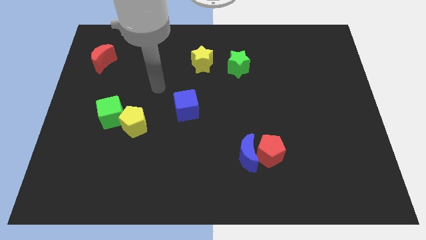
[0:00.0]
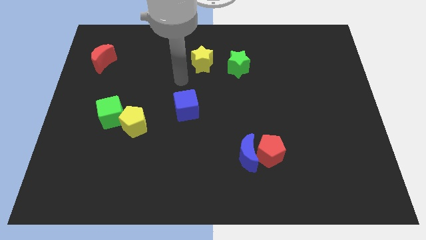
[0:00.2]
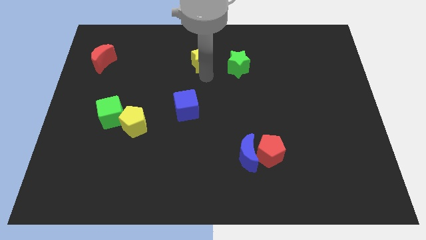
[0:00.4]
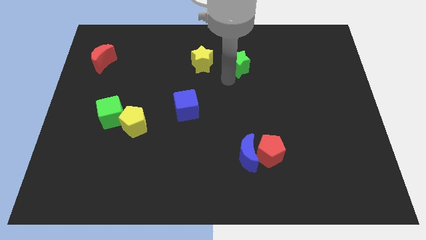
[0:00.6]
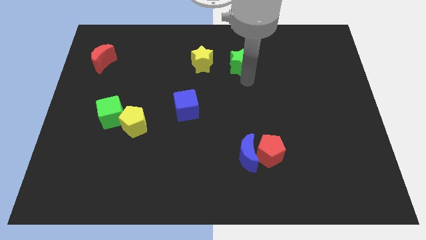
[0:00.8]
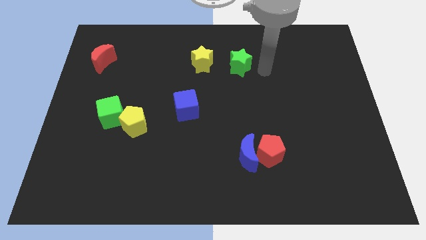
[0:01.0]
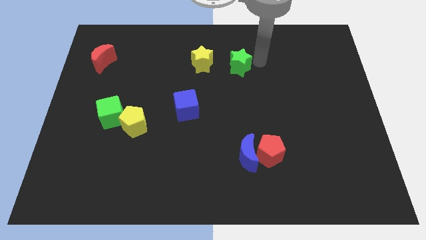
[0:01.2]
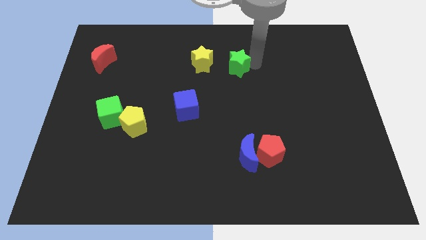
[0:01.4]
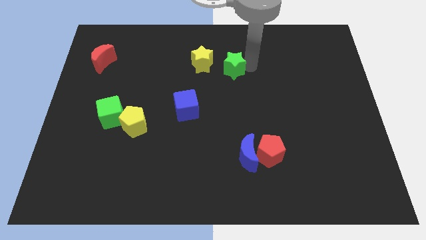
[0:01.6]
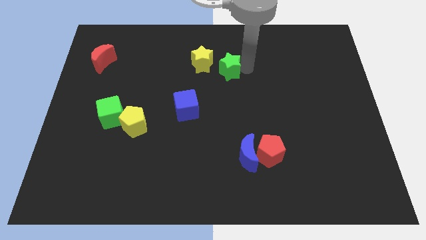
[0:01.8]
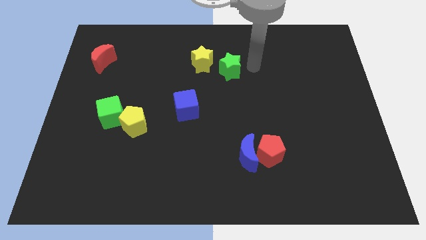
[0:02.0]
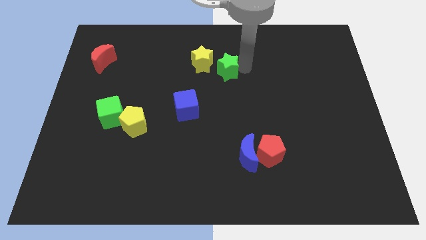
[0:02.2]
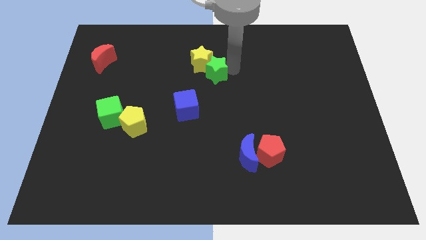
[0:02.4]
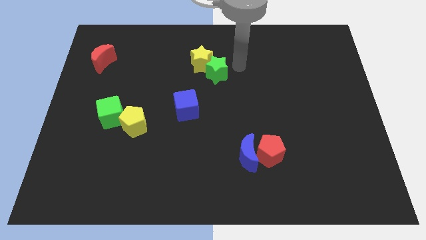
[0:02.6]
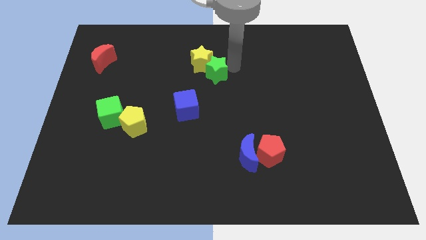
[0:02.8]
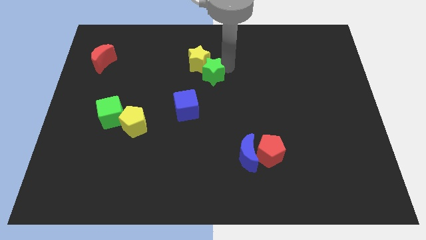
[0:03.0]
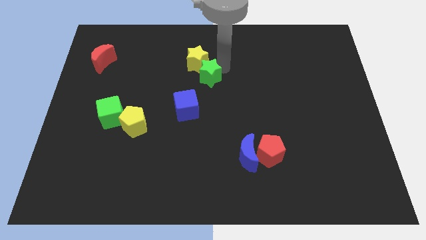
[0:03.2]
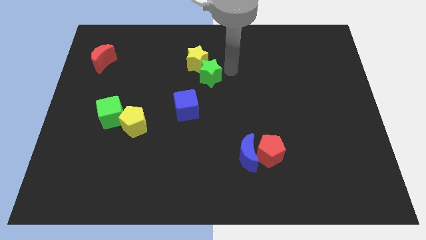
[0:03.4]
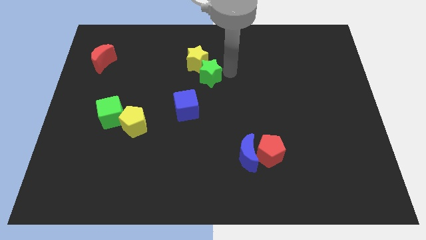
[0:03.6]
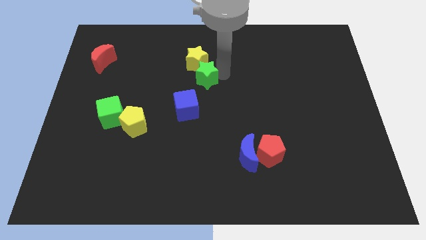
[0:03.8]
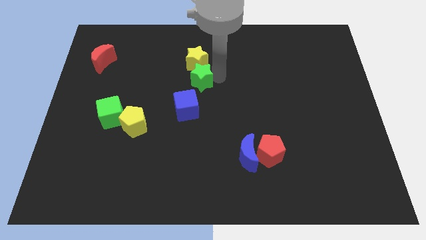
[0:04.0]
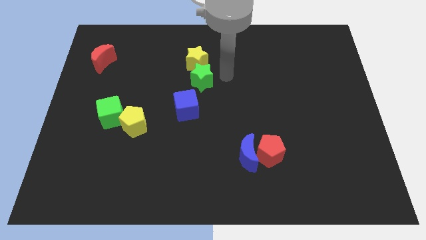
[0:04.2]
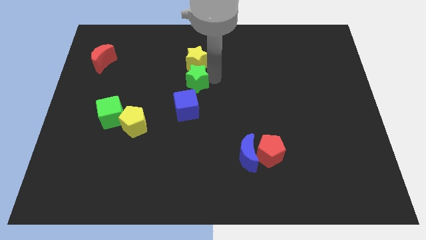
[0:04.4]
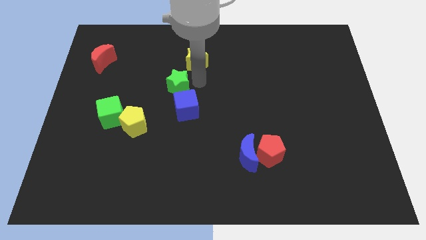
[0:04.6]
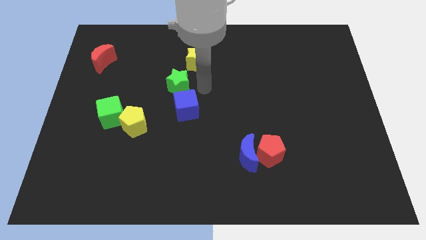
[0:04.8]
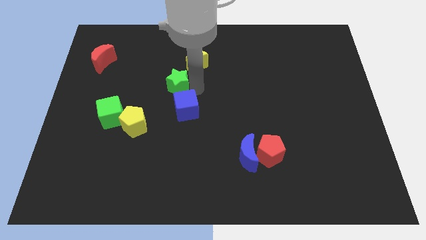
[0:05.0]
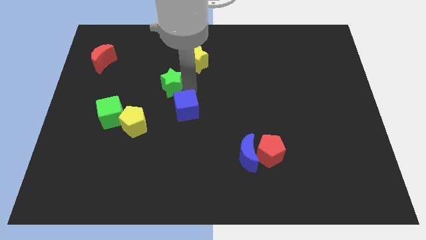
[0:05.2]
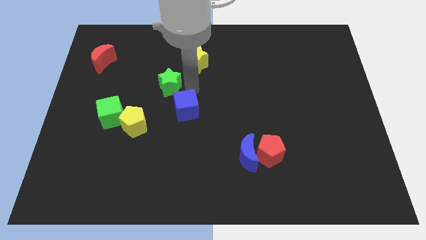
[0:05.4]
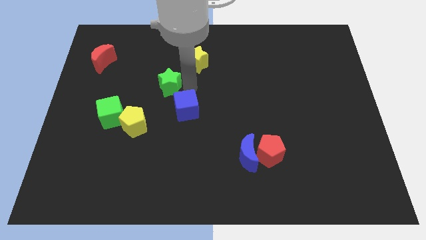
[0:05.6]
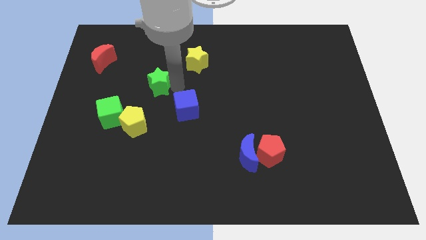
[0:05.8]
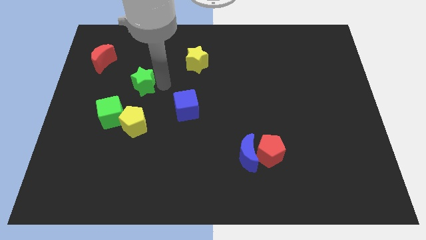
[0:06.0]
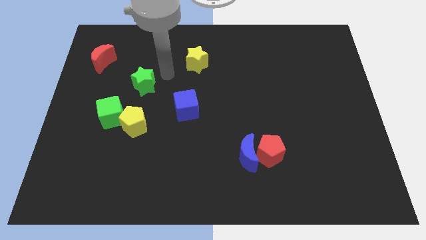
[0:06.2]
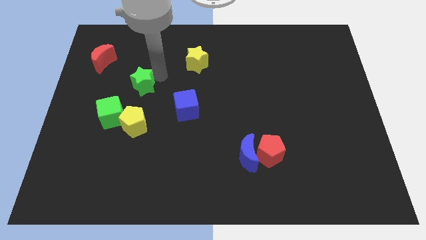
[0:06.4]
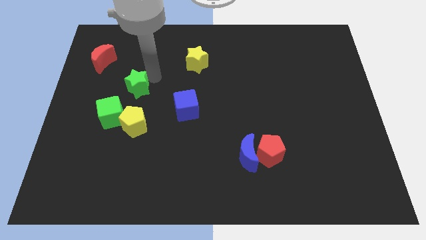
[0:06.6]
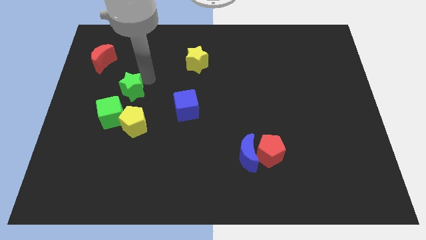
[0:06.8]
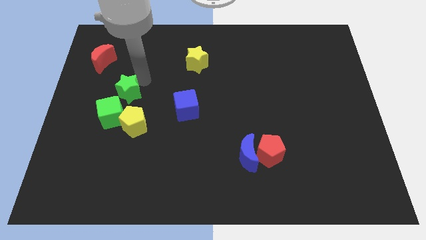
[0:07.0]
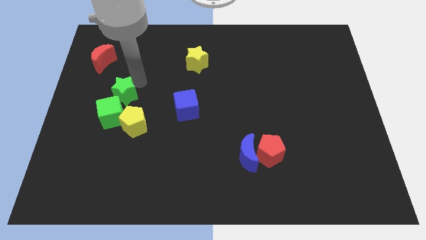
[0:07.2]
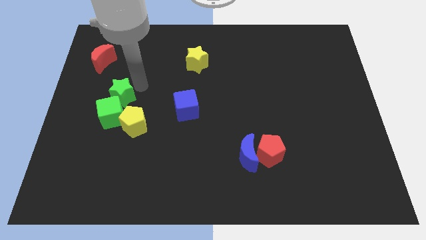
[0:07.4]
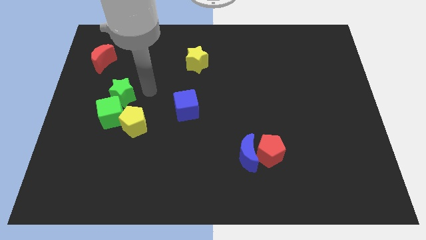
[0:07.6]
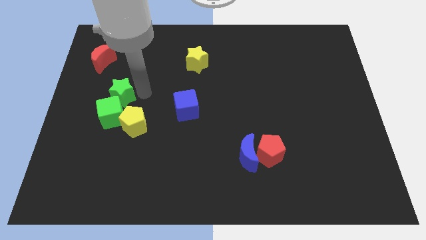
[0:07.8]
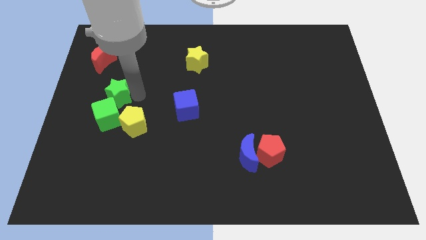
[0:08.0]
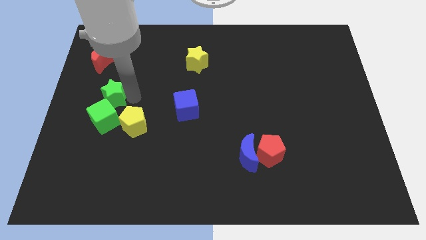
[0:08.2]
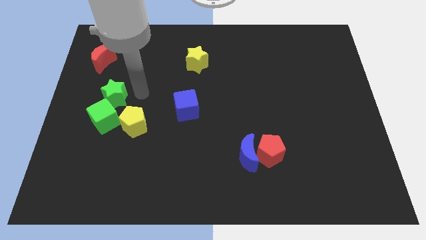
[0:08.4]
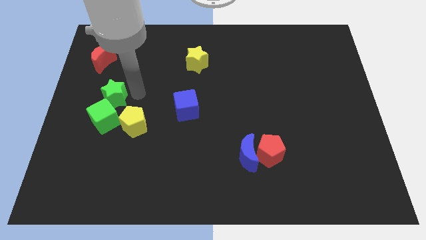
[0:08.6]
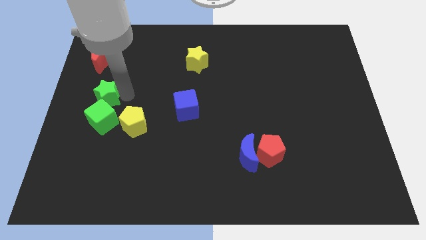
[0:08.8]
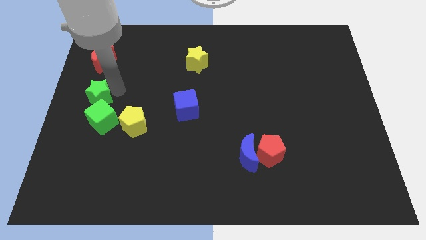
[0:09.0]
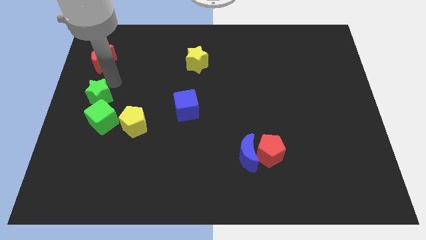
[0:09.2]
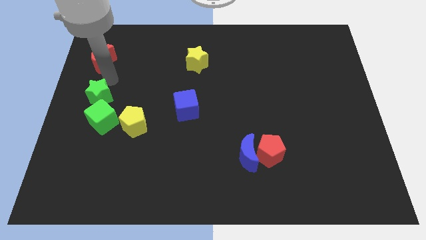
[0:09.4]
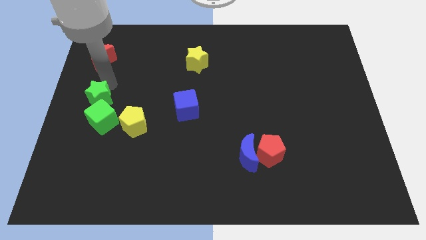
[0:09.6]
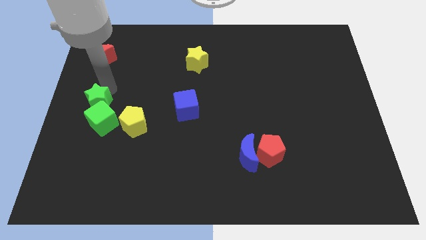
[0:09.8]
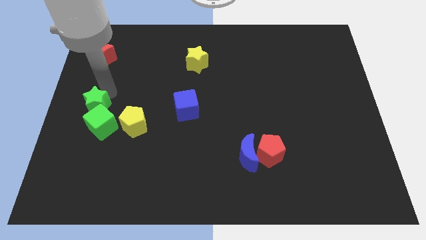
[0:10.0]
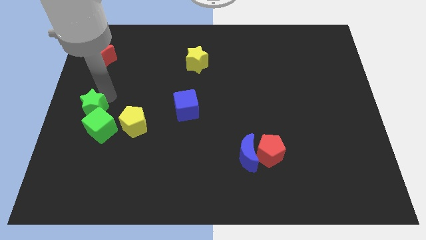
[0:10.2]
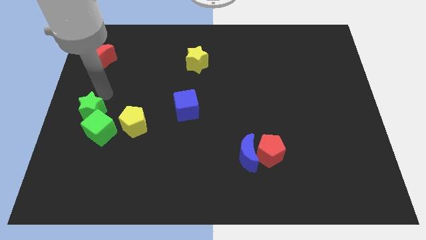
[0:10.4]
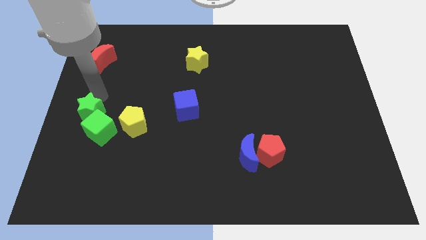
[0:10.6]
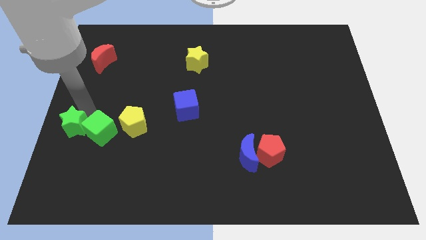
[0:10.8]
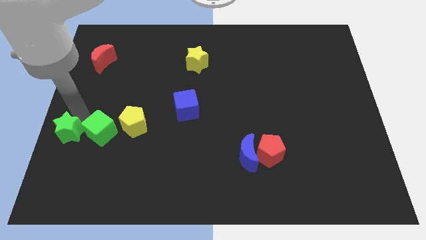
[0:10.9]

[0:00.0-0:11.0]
slide the green star diagonally down and to the left of the green cube

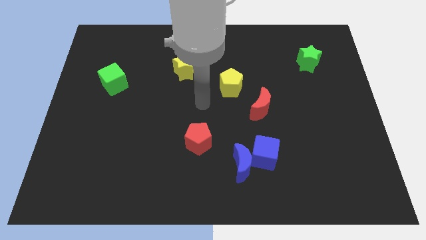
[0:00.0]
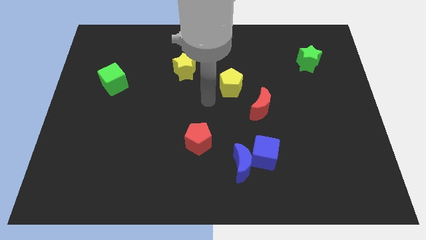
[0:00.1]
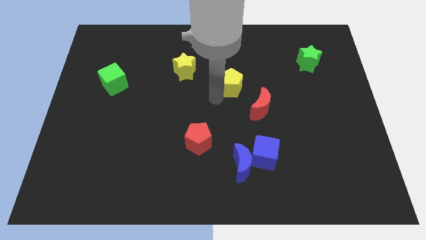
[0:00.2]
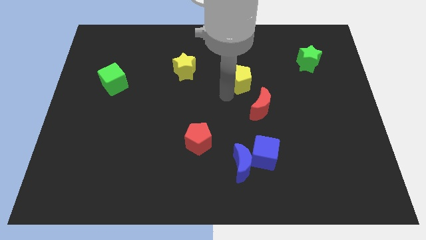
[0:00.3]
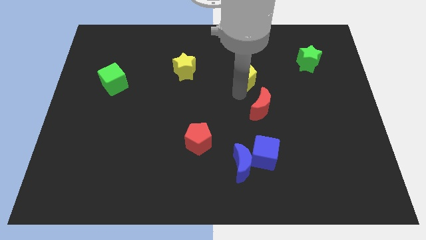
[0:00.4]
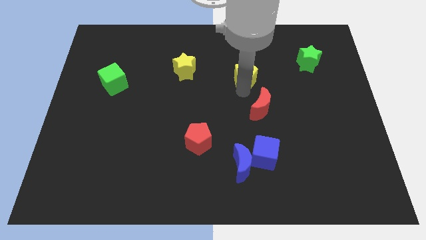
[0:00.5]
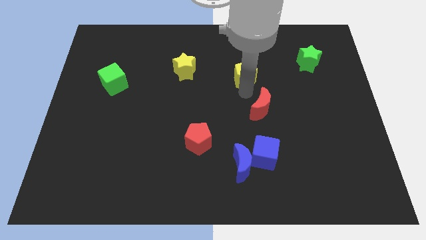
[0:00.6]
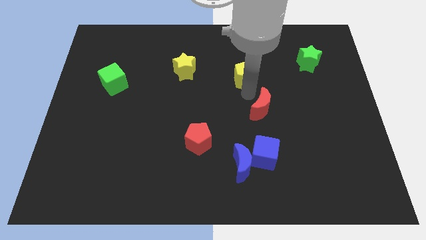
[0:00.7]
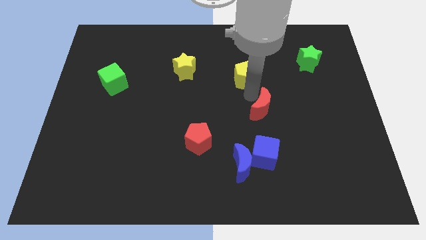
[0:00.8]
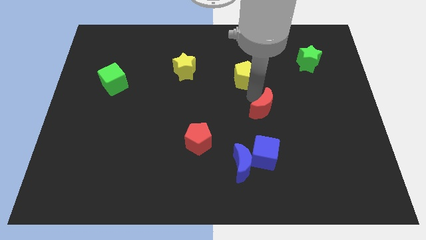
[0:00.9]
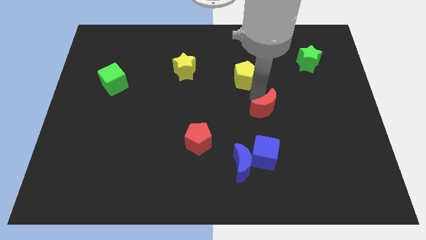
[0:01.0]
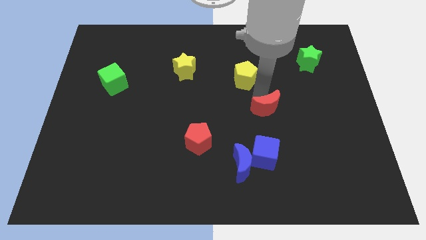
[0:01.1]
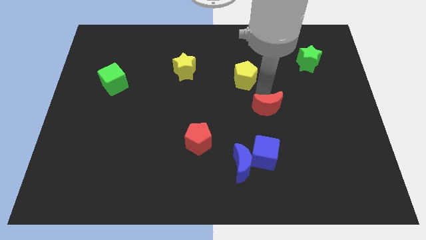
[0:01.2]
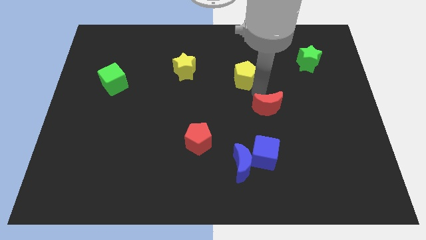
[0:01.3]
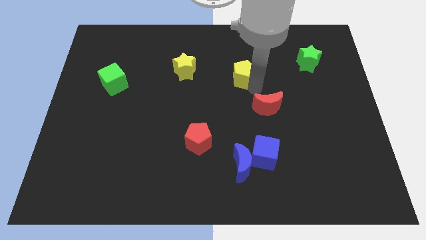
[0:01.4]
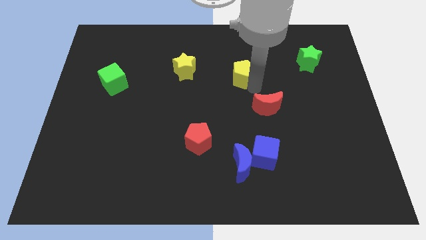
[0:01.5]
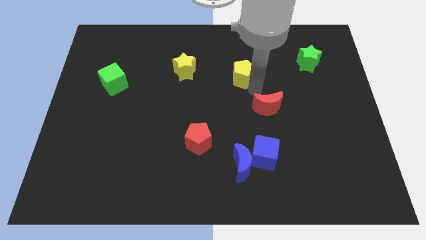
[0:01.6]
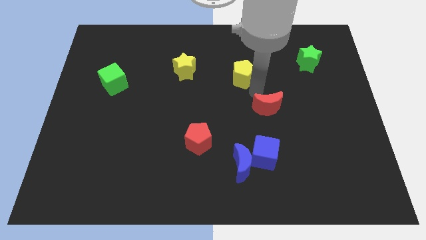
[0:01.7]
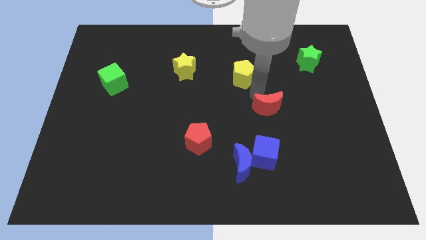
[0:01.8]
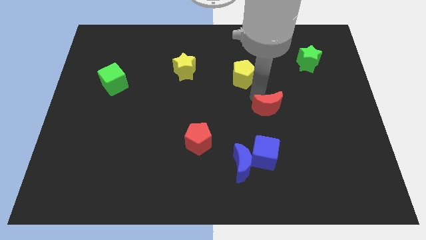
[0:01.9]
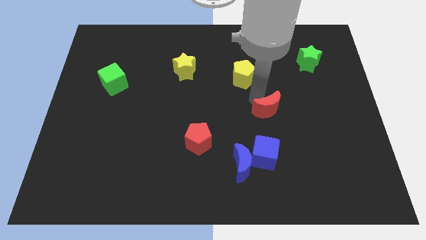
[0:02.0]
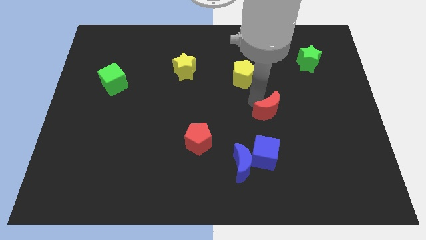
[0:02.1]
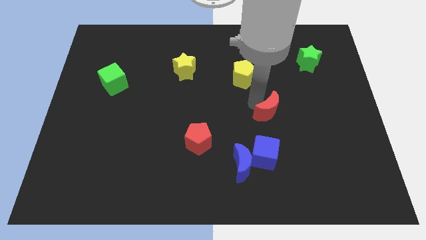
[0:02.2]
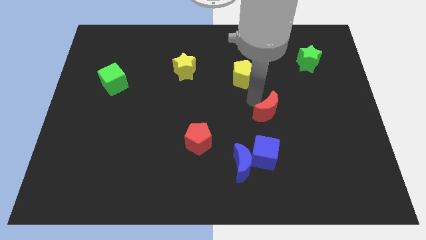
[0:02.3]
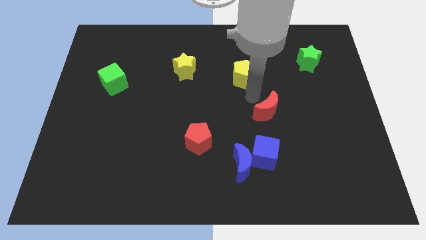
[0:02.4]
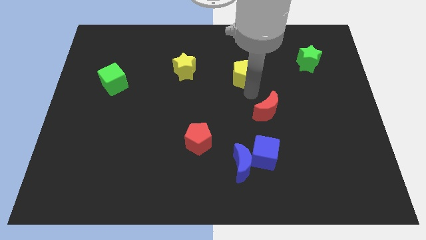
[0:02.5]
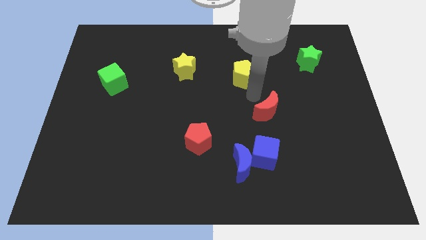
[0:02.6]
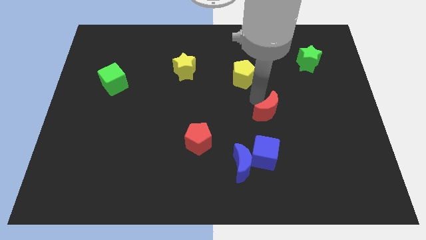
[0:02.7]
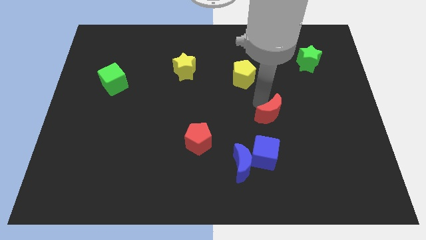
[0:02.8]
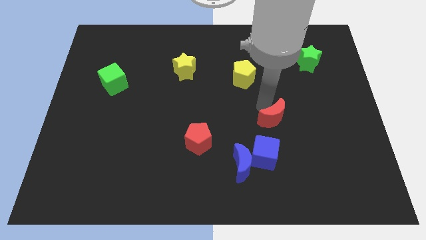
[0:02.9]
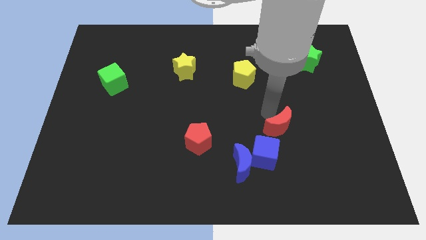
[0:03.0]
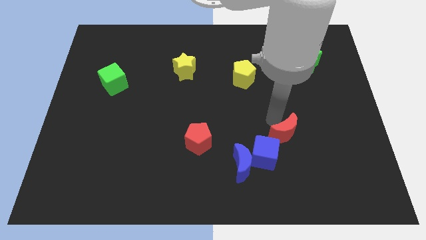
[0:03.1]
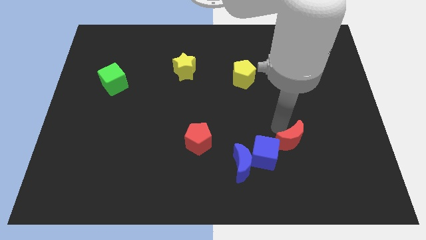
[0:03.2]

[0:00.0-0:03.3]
slide the red moon to the right side of the blue cube
